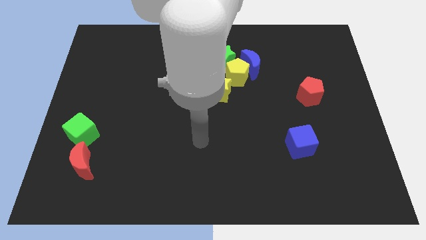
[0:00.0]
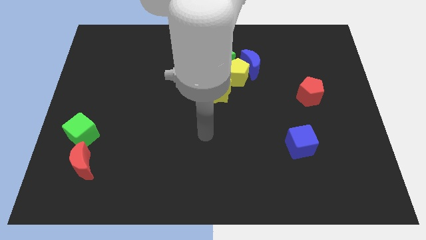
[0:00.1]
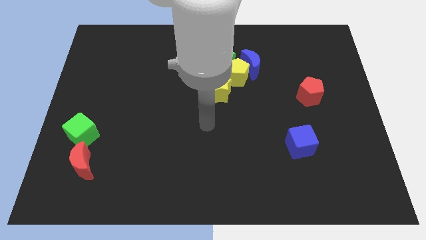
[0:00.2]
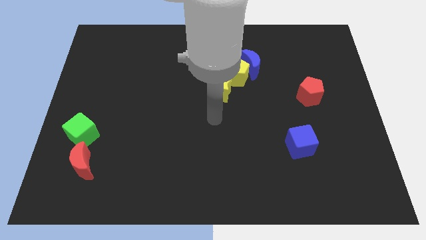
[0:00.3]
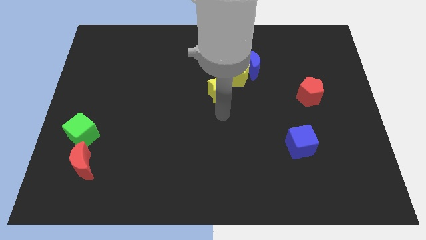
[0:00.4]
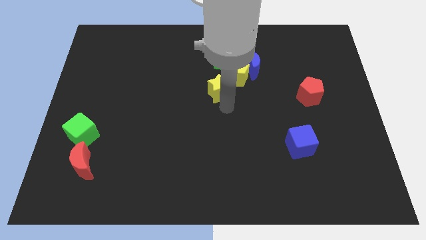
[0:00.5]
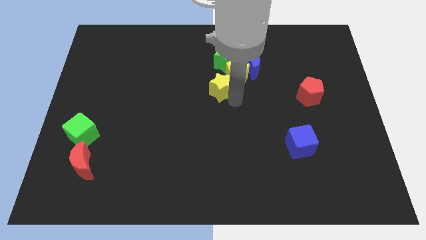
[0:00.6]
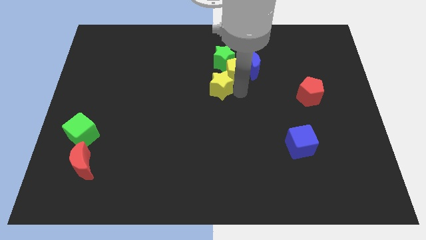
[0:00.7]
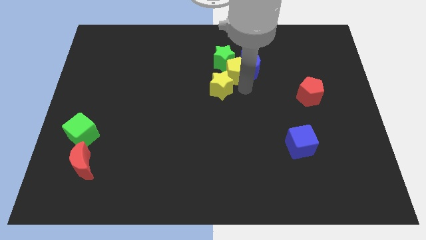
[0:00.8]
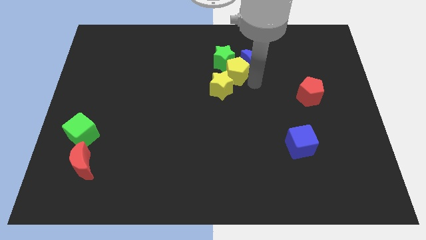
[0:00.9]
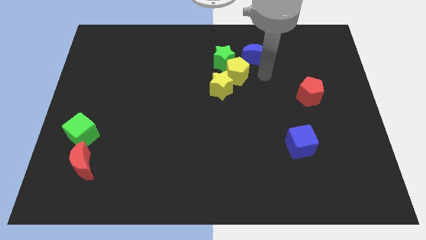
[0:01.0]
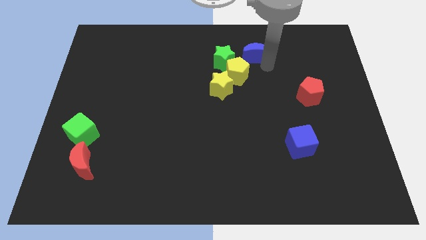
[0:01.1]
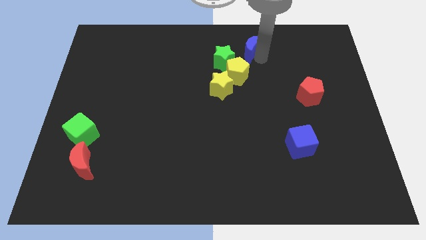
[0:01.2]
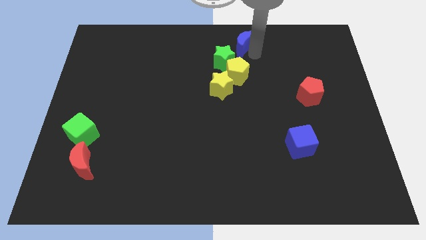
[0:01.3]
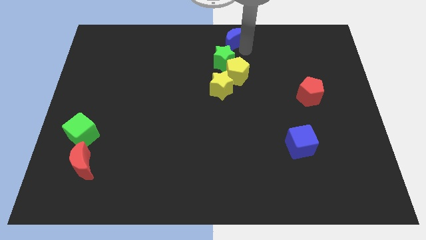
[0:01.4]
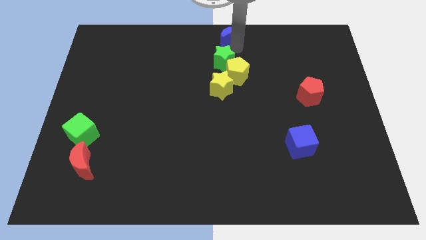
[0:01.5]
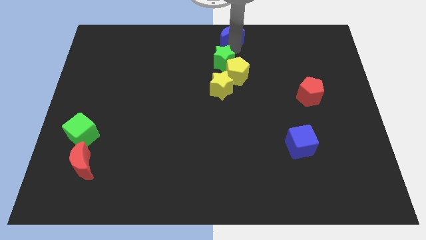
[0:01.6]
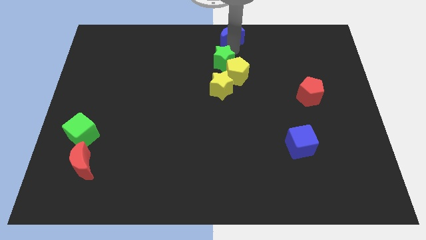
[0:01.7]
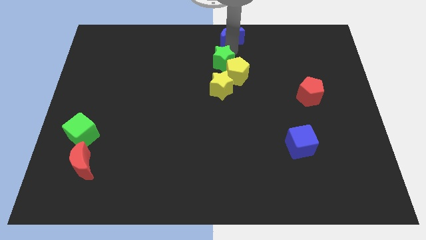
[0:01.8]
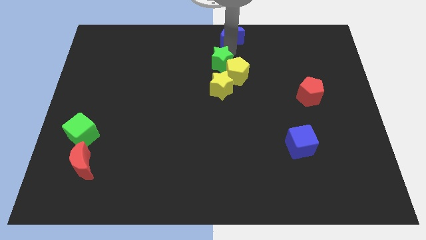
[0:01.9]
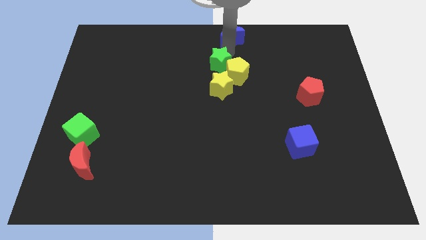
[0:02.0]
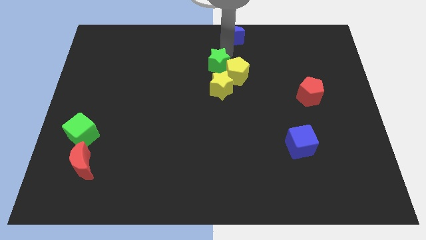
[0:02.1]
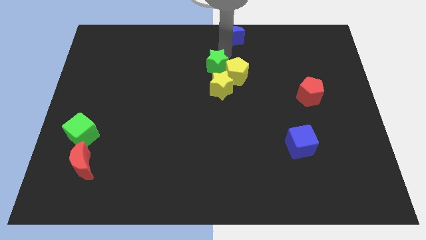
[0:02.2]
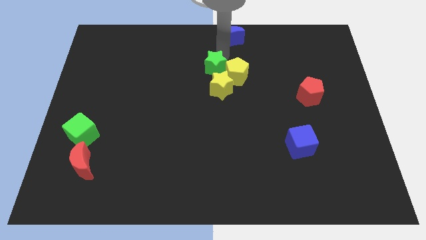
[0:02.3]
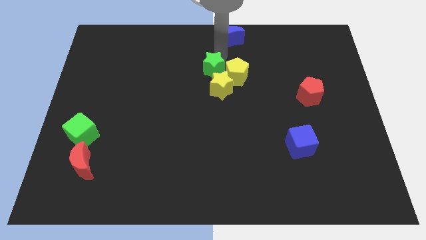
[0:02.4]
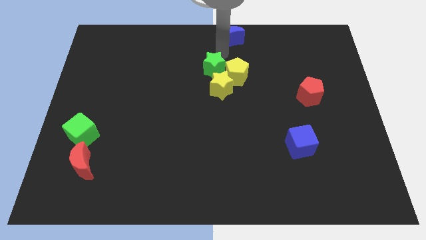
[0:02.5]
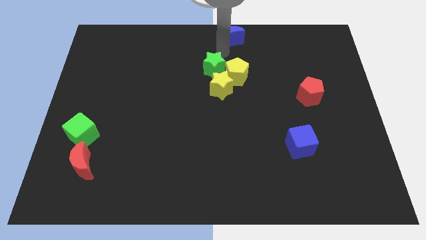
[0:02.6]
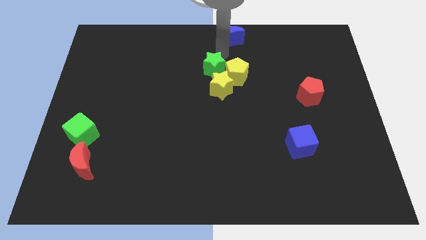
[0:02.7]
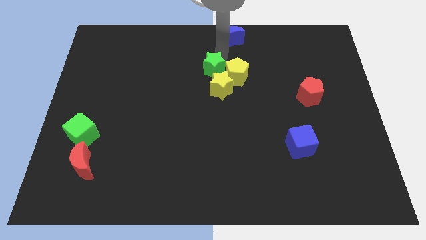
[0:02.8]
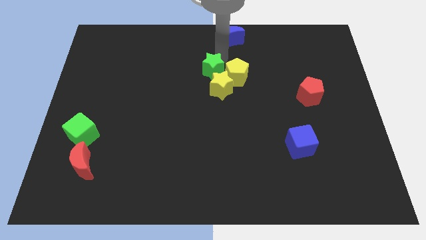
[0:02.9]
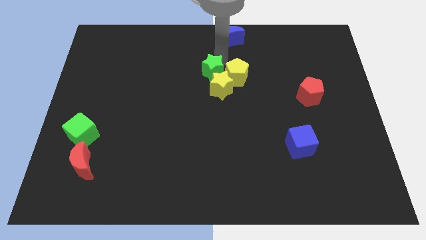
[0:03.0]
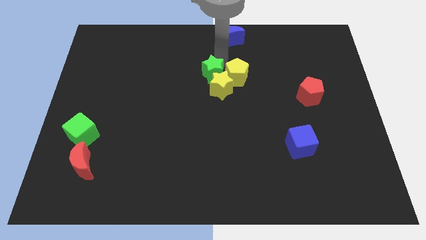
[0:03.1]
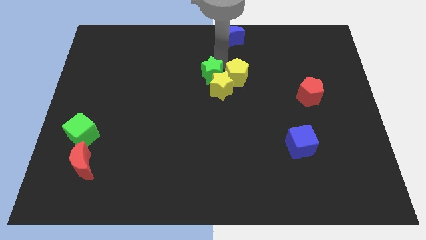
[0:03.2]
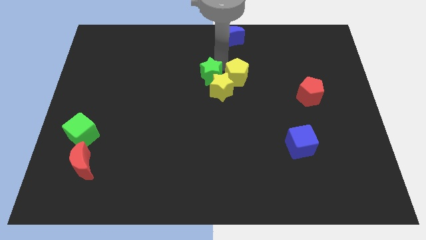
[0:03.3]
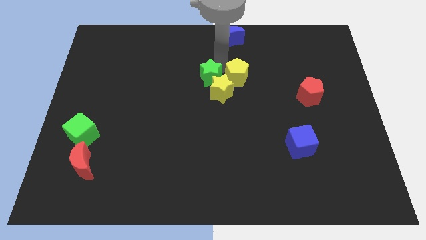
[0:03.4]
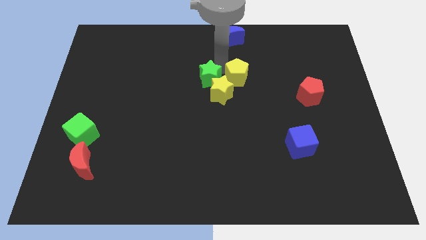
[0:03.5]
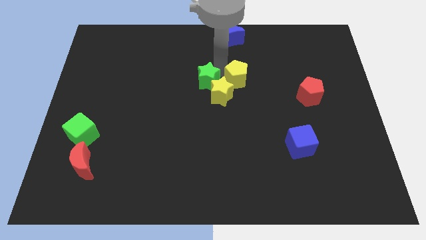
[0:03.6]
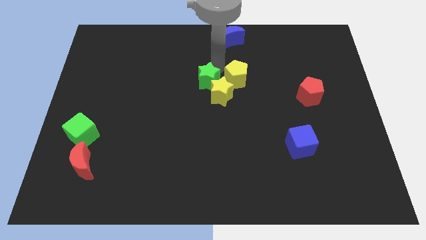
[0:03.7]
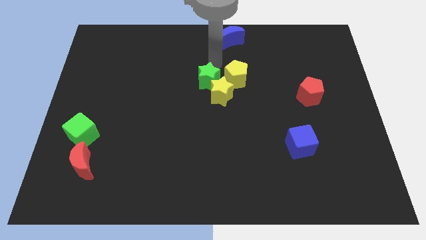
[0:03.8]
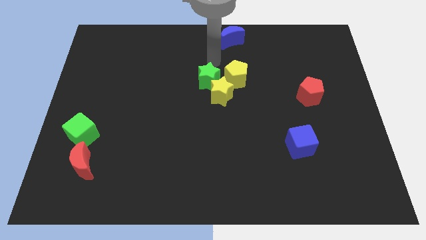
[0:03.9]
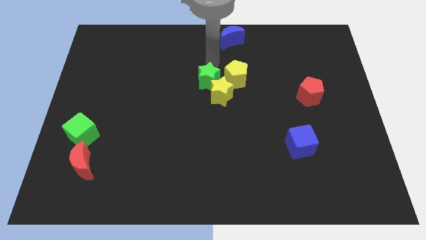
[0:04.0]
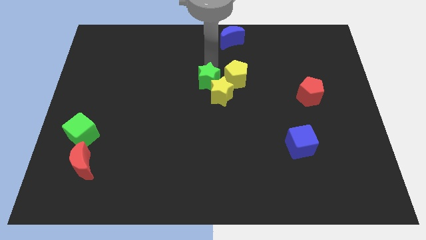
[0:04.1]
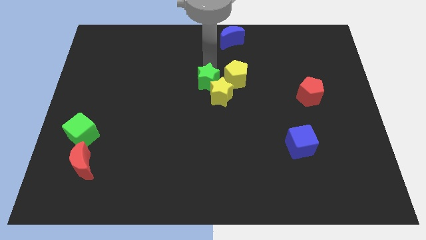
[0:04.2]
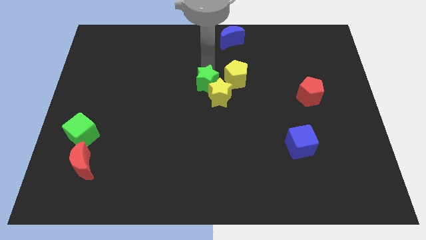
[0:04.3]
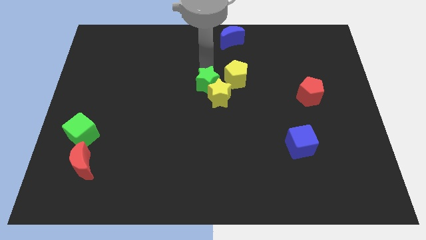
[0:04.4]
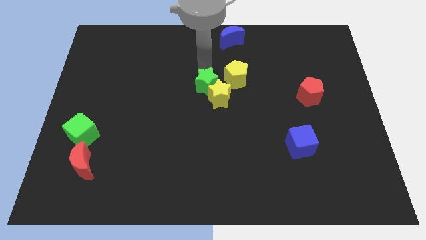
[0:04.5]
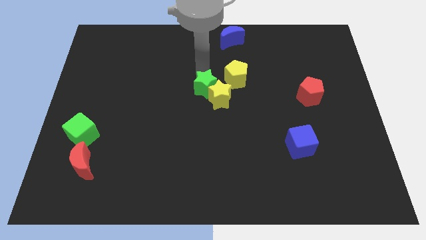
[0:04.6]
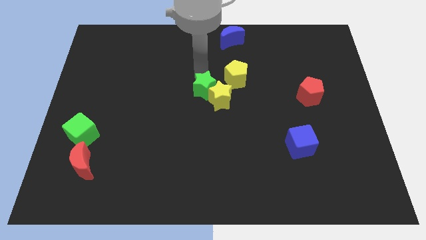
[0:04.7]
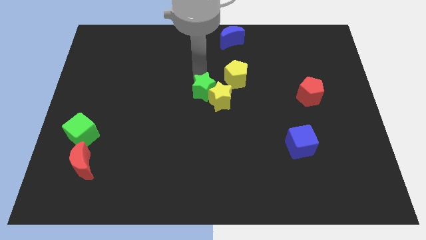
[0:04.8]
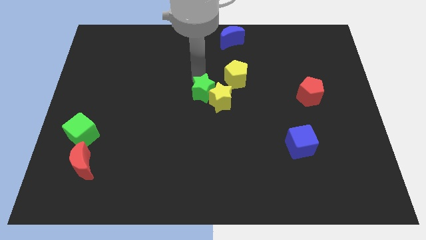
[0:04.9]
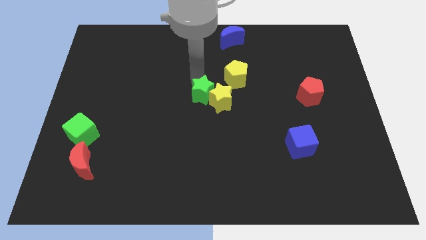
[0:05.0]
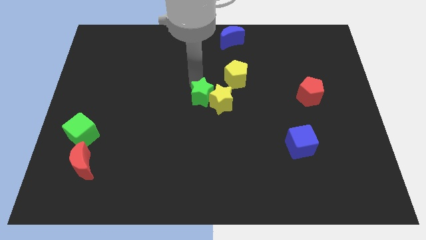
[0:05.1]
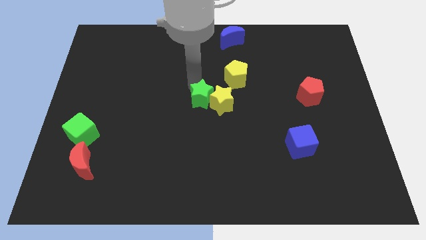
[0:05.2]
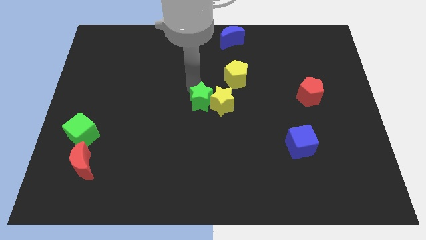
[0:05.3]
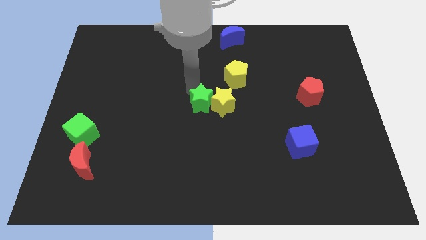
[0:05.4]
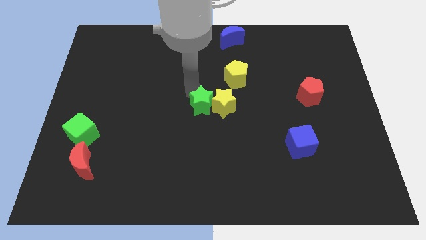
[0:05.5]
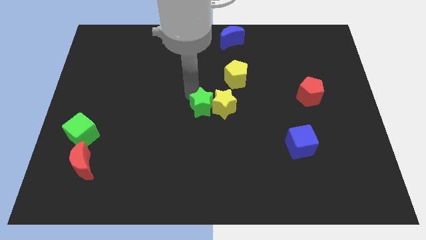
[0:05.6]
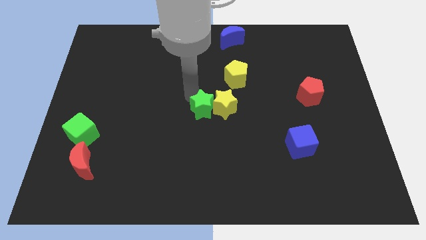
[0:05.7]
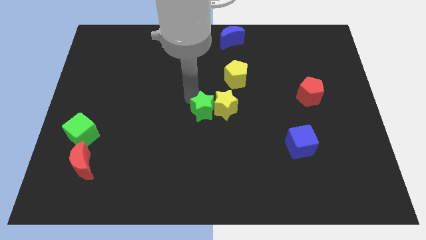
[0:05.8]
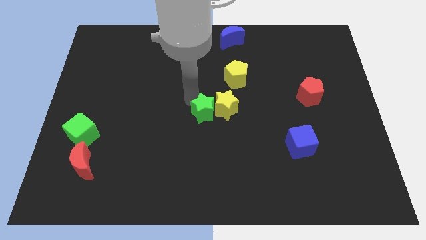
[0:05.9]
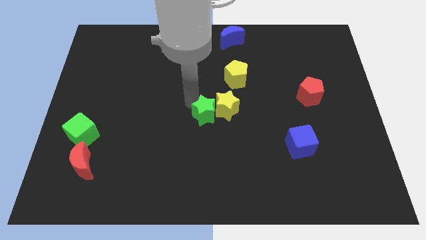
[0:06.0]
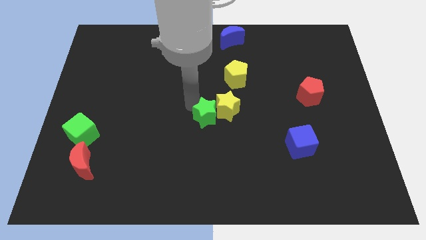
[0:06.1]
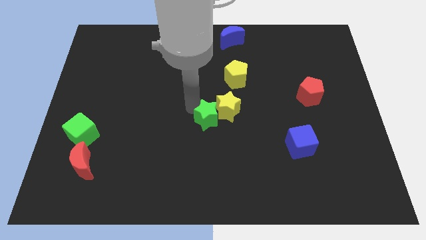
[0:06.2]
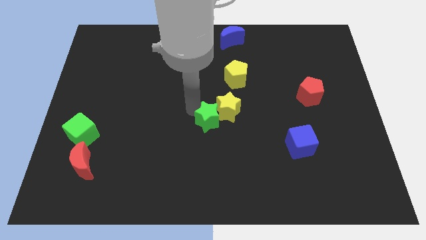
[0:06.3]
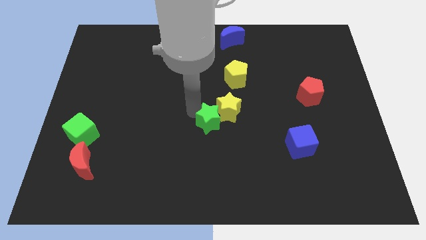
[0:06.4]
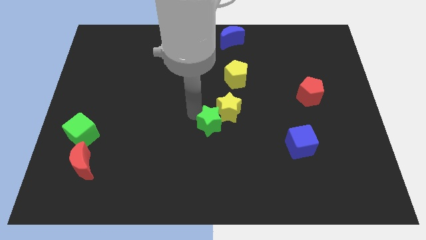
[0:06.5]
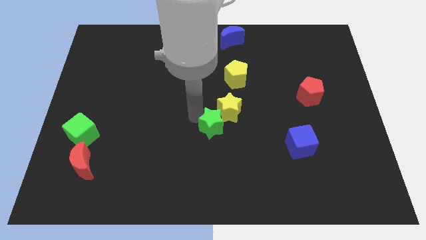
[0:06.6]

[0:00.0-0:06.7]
move the green star downwards

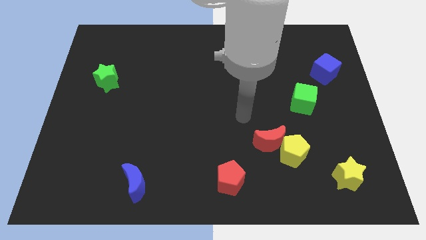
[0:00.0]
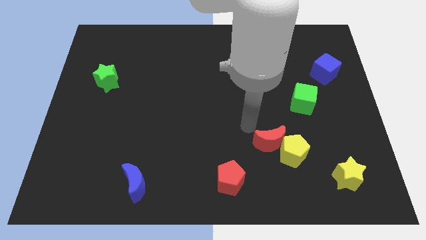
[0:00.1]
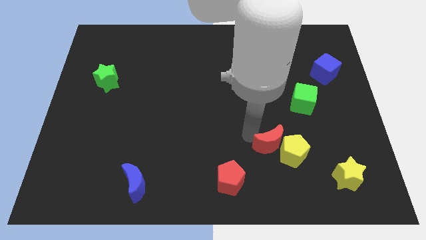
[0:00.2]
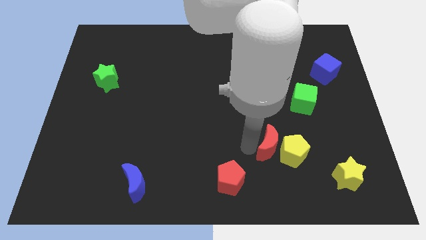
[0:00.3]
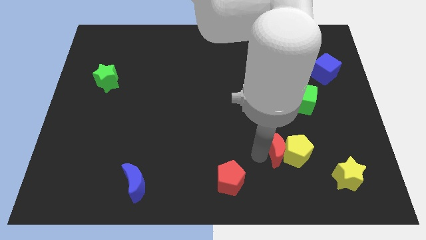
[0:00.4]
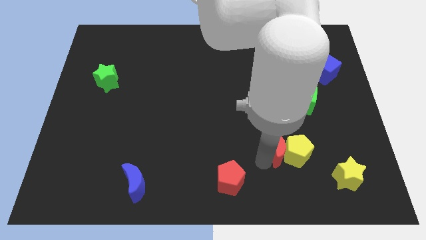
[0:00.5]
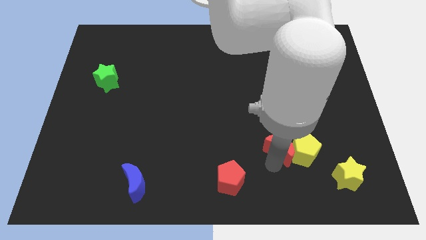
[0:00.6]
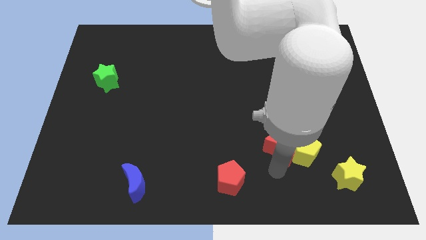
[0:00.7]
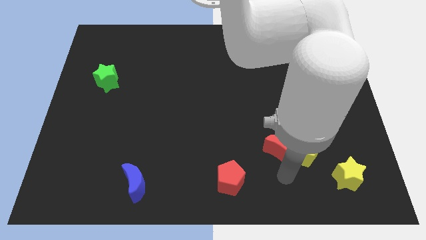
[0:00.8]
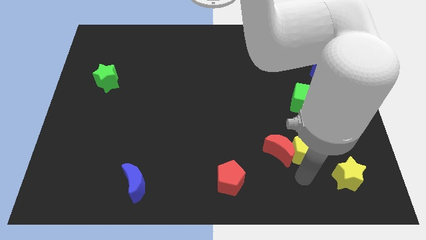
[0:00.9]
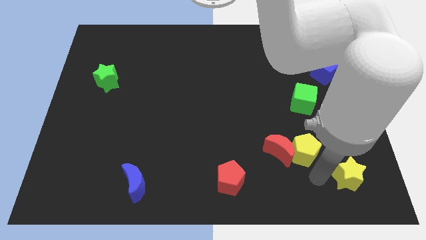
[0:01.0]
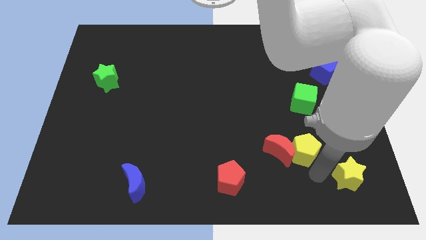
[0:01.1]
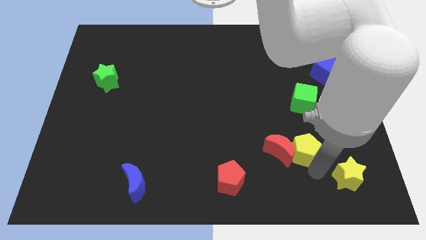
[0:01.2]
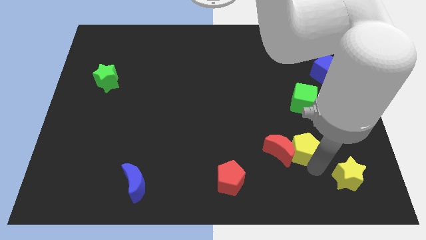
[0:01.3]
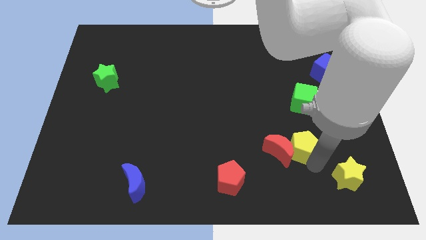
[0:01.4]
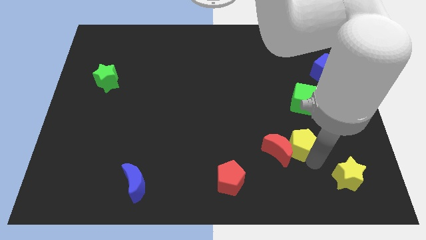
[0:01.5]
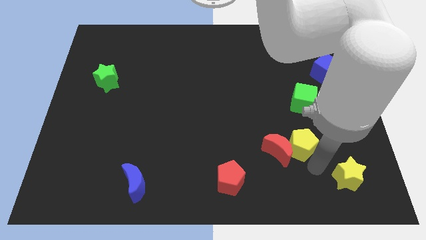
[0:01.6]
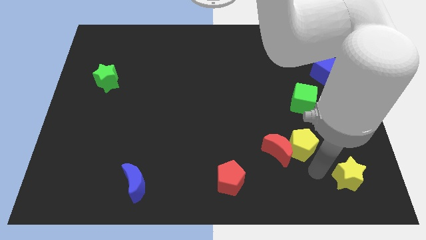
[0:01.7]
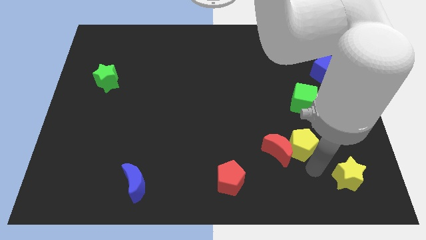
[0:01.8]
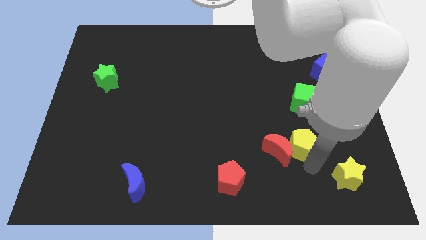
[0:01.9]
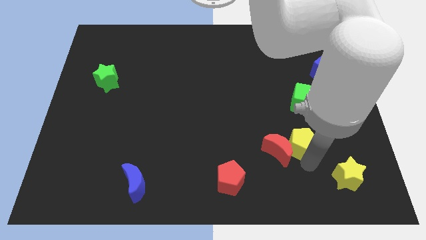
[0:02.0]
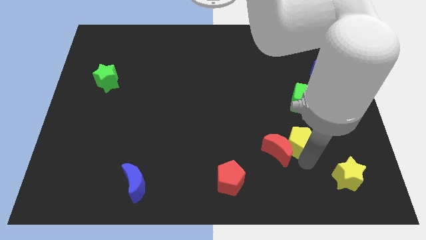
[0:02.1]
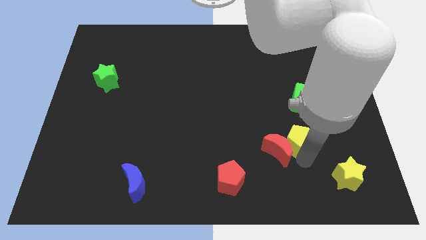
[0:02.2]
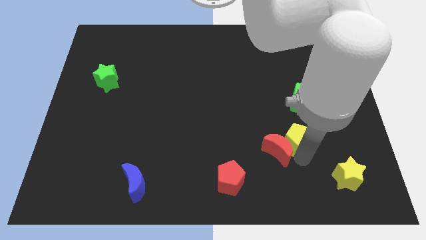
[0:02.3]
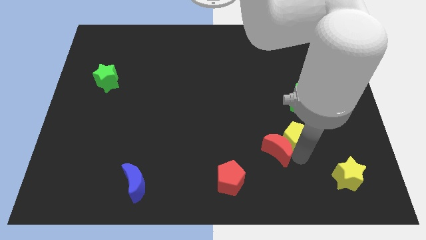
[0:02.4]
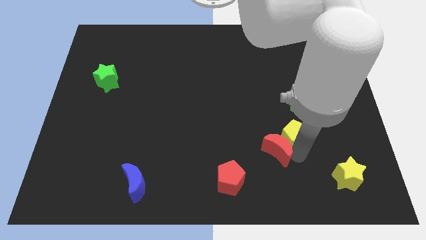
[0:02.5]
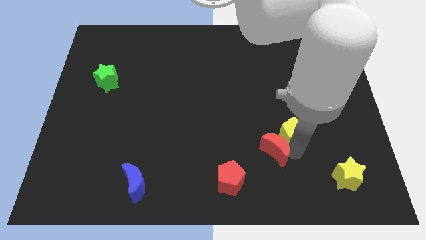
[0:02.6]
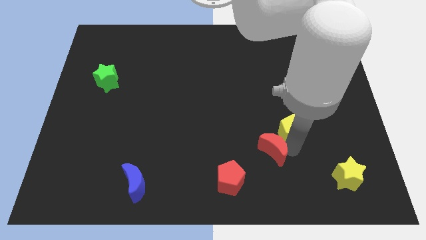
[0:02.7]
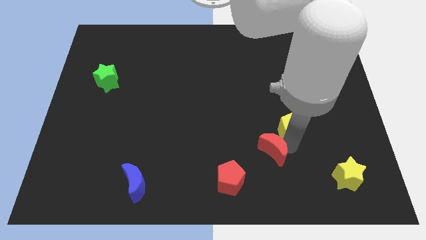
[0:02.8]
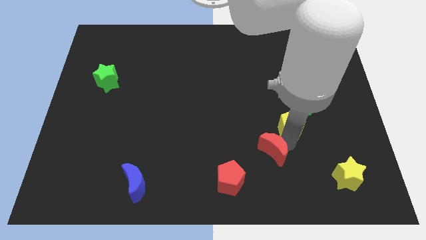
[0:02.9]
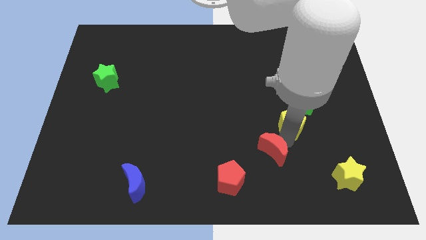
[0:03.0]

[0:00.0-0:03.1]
slide the yellow pentagon upwards a little bit
